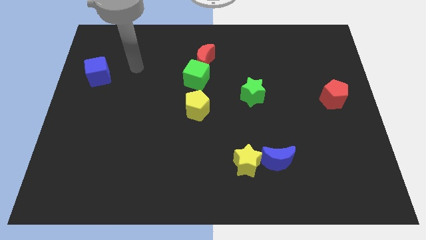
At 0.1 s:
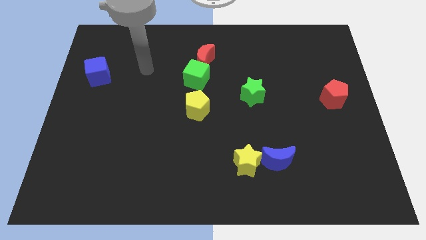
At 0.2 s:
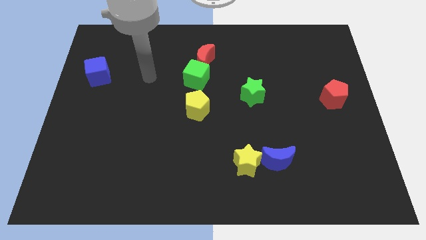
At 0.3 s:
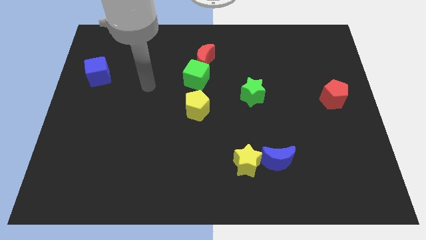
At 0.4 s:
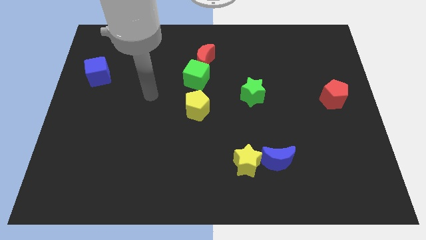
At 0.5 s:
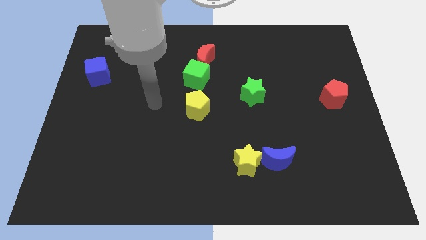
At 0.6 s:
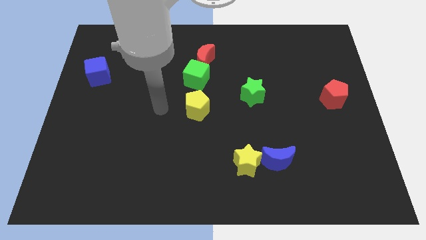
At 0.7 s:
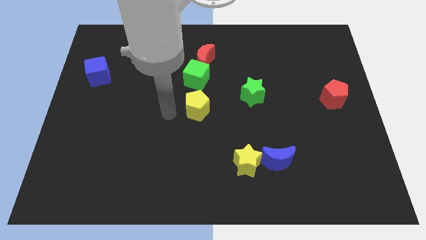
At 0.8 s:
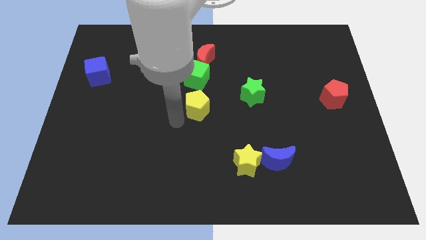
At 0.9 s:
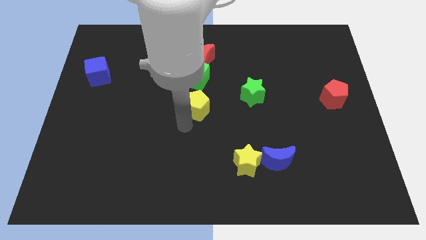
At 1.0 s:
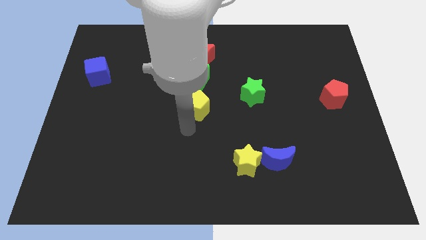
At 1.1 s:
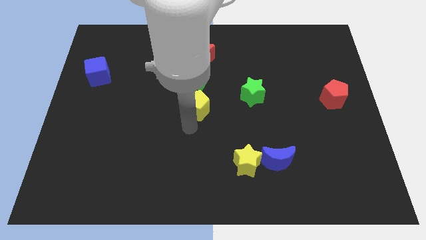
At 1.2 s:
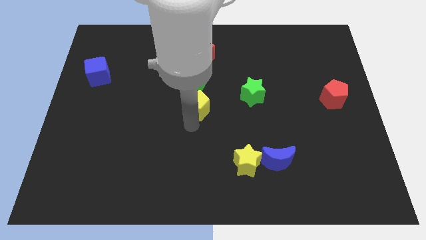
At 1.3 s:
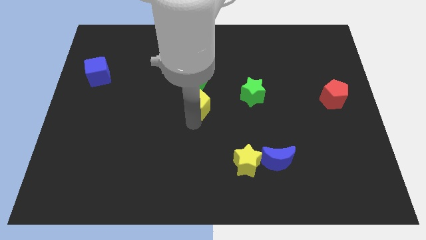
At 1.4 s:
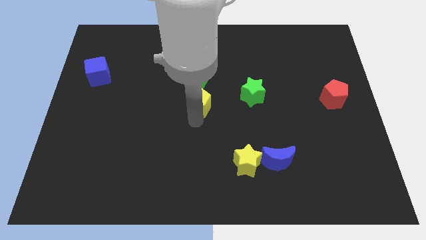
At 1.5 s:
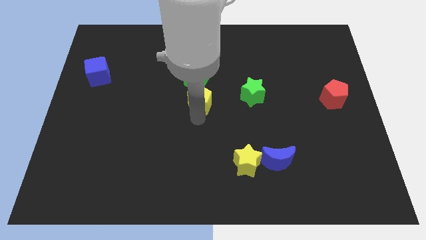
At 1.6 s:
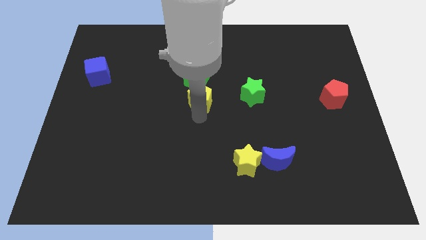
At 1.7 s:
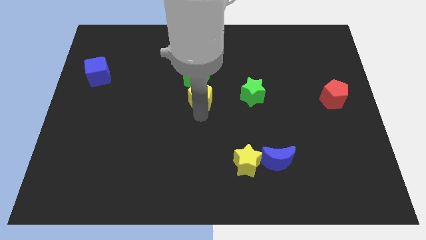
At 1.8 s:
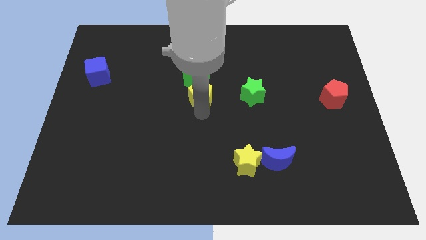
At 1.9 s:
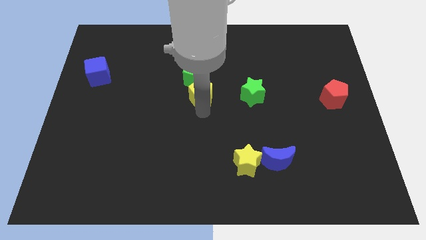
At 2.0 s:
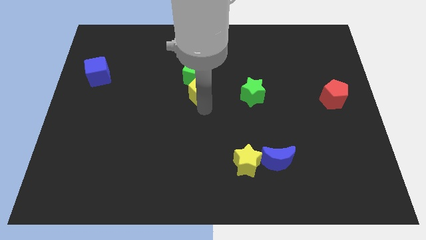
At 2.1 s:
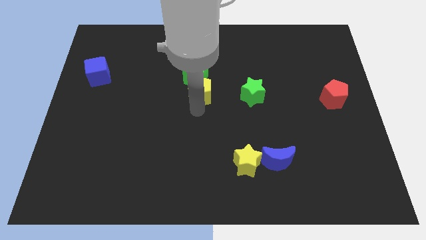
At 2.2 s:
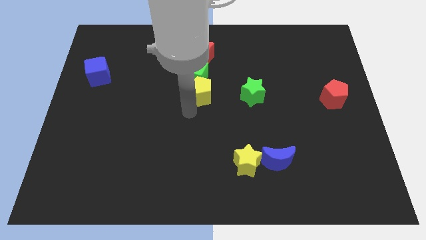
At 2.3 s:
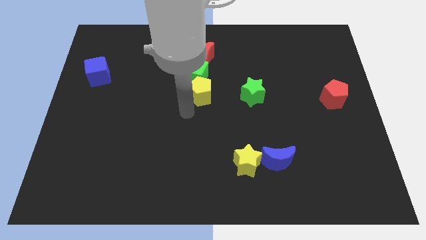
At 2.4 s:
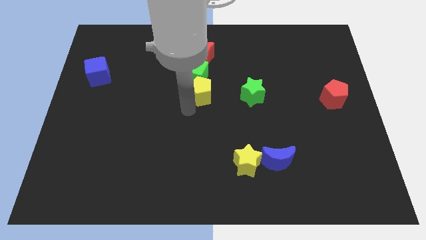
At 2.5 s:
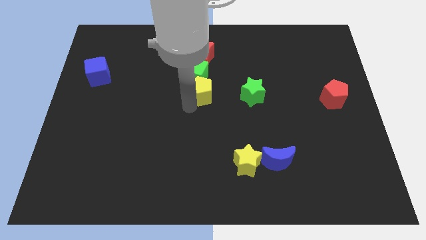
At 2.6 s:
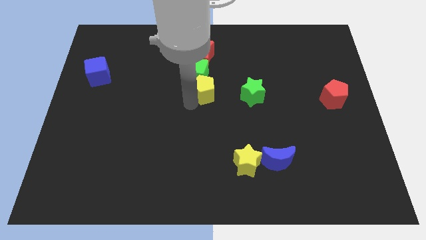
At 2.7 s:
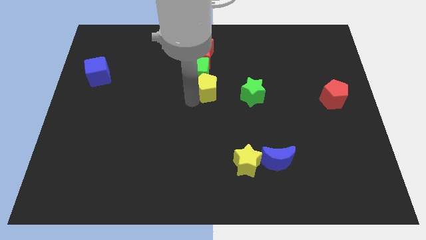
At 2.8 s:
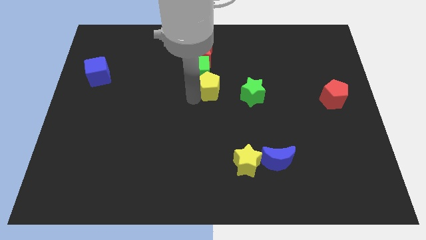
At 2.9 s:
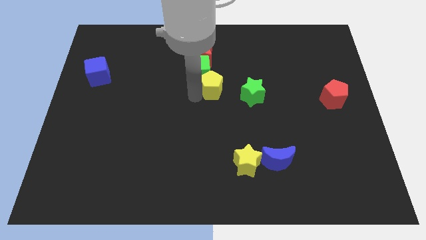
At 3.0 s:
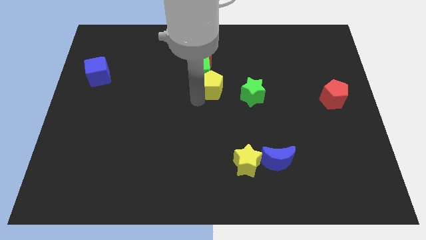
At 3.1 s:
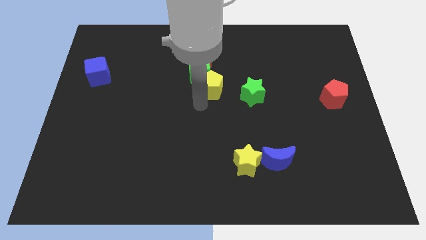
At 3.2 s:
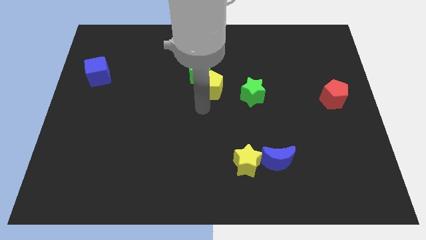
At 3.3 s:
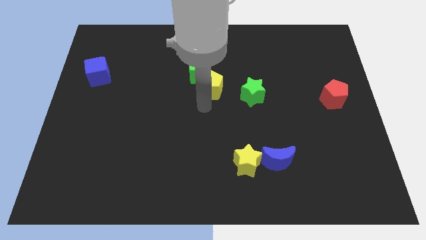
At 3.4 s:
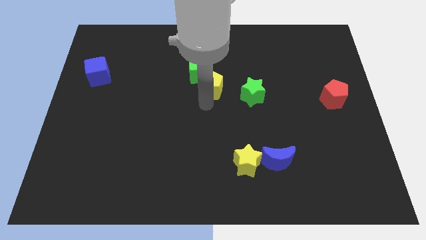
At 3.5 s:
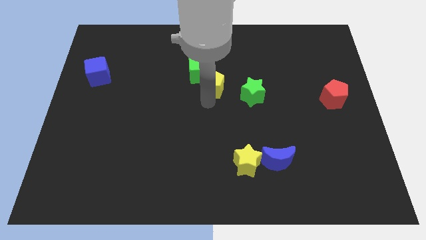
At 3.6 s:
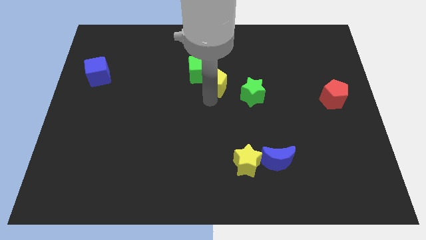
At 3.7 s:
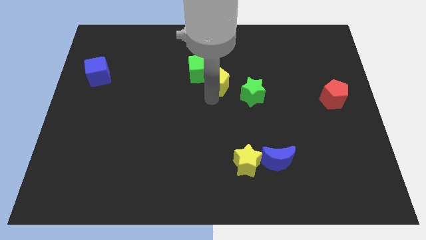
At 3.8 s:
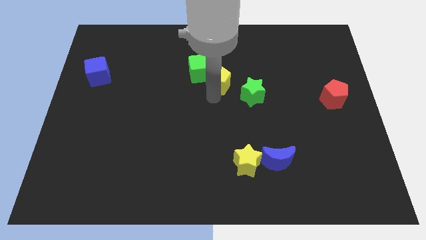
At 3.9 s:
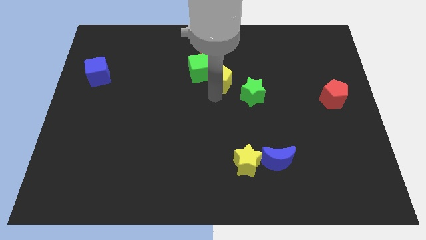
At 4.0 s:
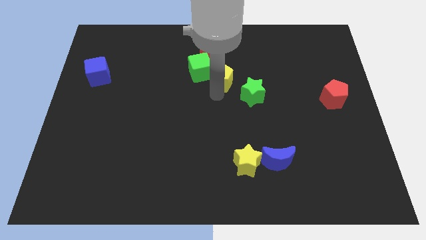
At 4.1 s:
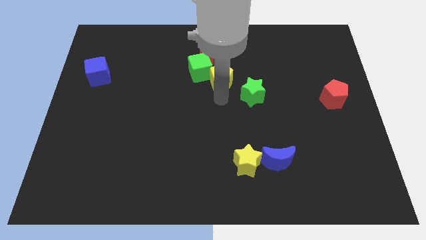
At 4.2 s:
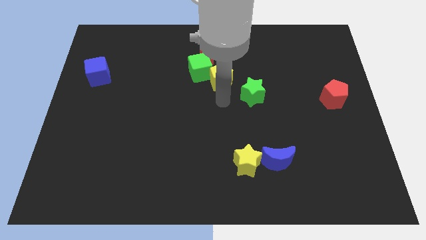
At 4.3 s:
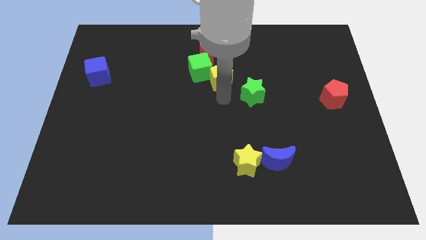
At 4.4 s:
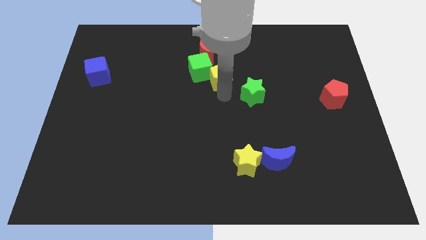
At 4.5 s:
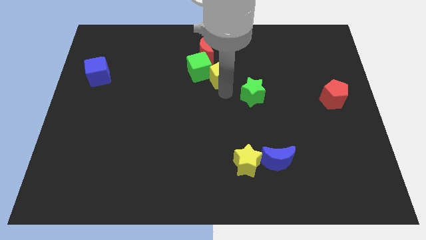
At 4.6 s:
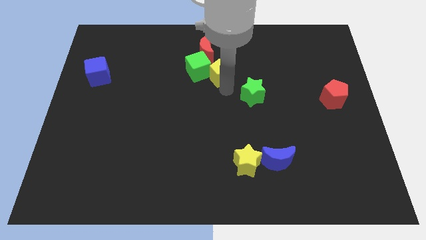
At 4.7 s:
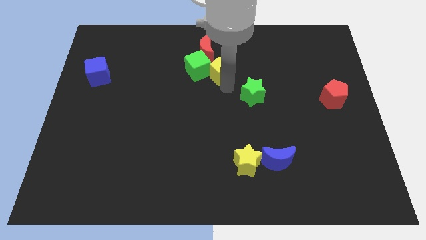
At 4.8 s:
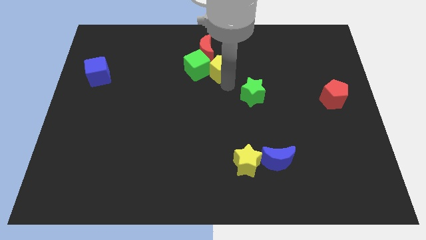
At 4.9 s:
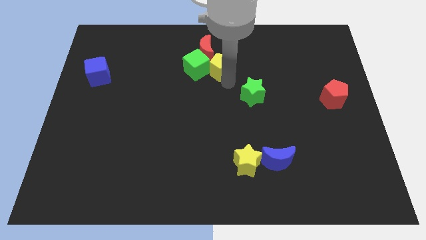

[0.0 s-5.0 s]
slide the yellow pentagon to the top right side of the green cube

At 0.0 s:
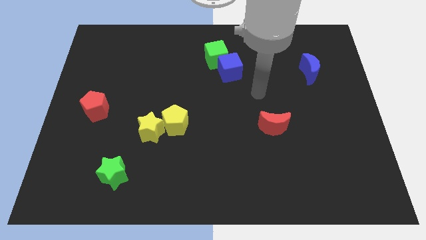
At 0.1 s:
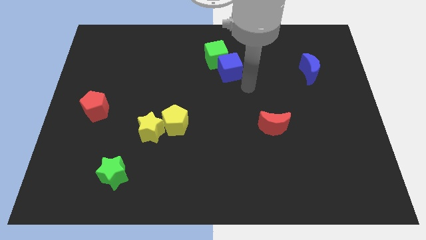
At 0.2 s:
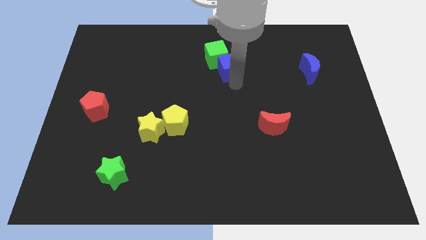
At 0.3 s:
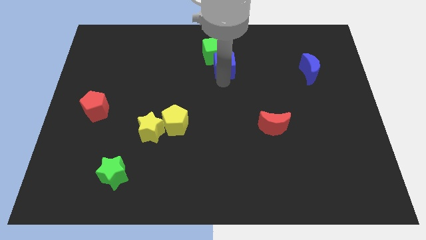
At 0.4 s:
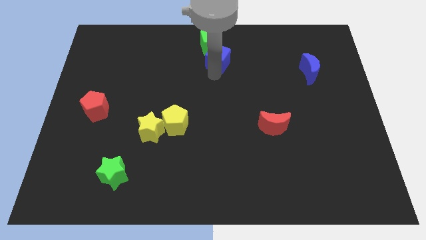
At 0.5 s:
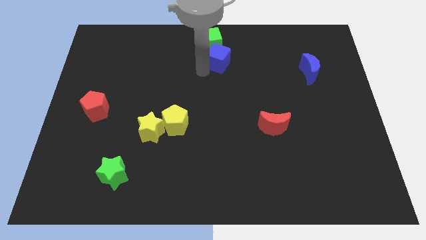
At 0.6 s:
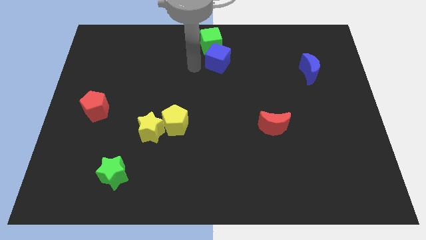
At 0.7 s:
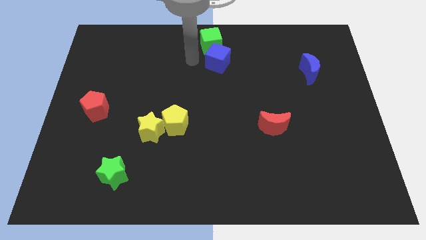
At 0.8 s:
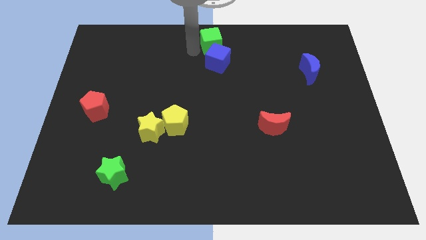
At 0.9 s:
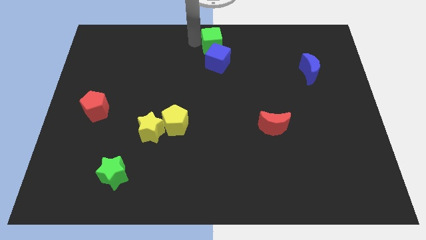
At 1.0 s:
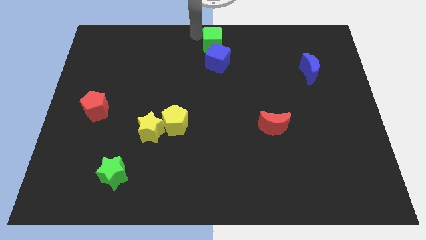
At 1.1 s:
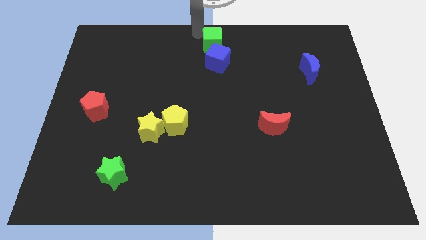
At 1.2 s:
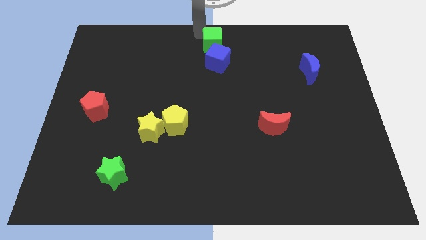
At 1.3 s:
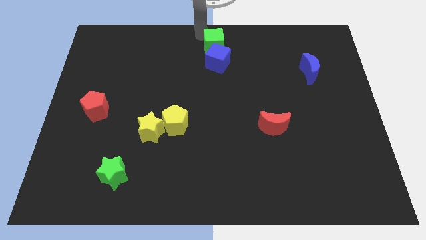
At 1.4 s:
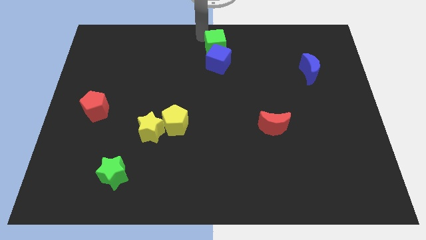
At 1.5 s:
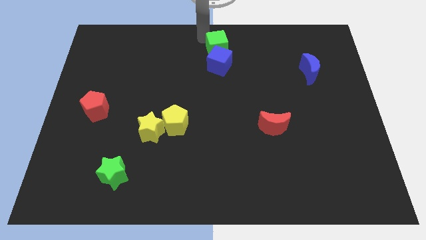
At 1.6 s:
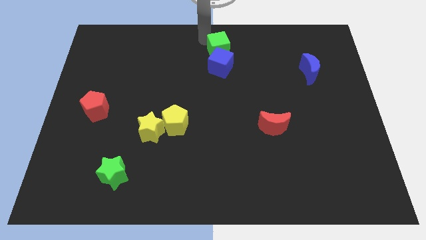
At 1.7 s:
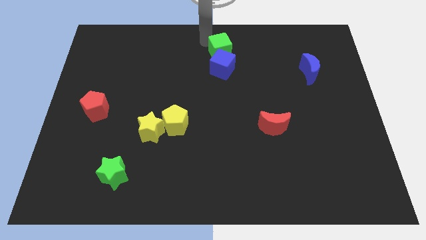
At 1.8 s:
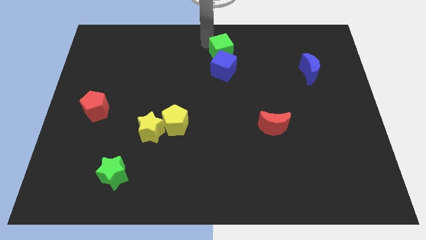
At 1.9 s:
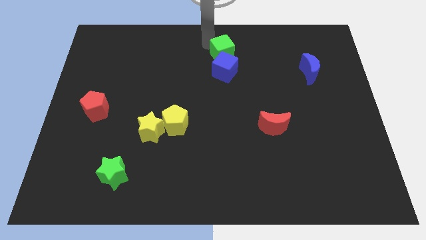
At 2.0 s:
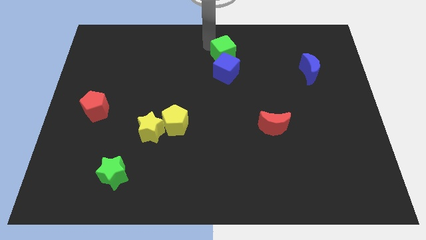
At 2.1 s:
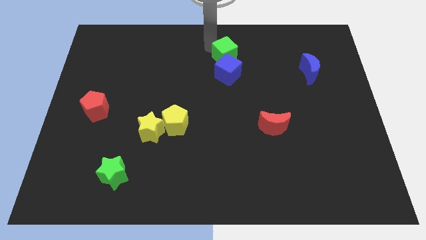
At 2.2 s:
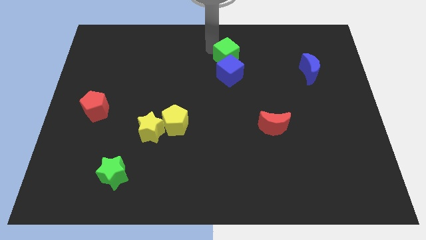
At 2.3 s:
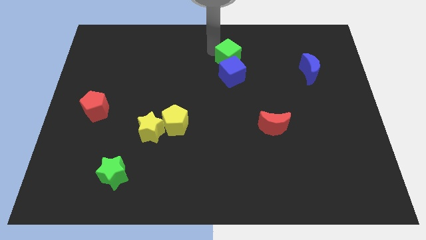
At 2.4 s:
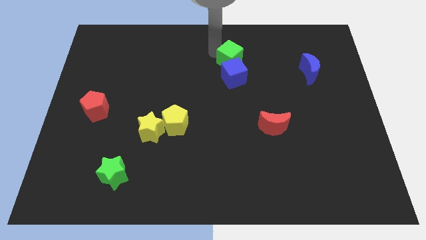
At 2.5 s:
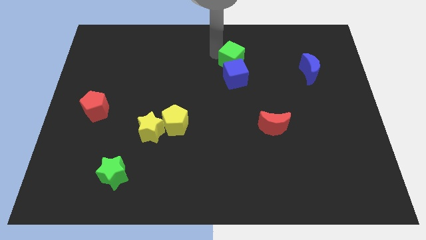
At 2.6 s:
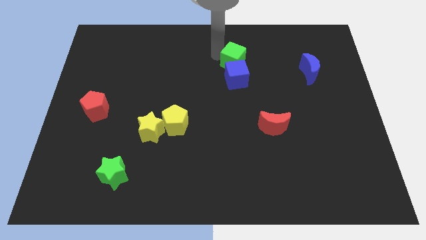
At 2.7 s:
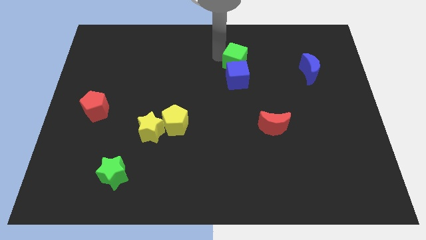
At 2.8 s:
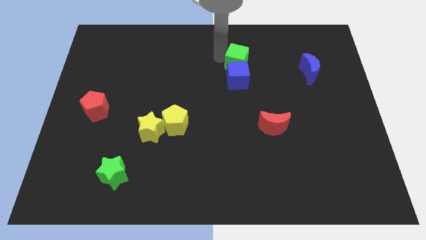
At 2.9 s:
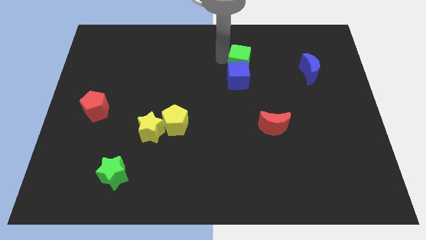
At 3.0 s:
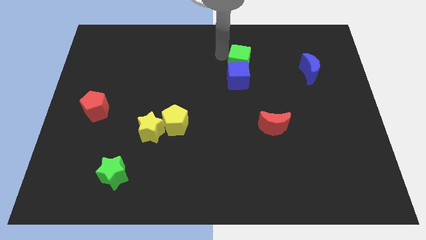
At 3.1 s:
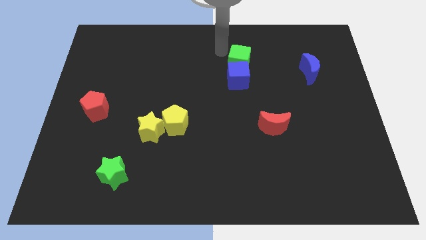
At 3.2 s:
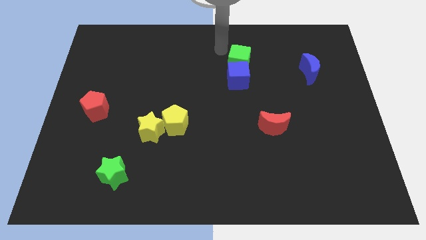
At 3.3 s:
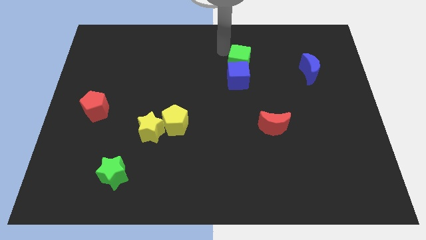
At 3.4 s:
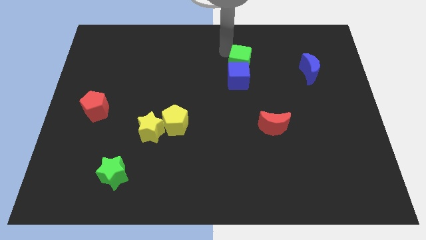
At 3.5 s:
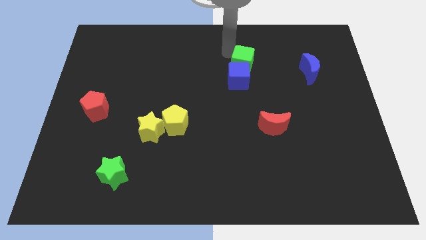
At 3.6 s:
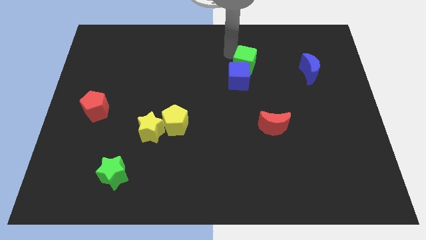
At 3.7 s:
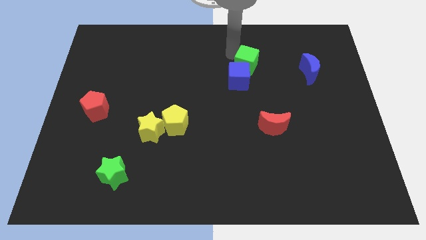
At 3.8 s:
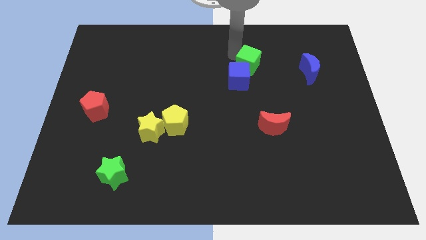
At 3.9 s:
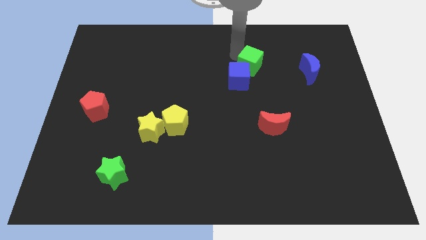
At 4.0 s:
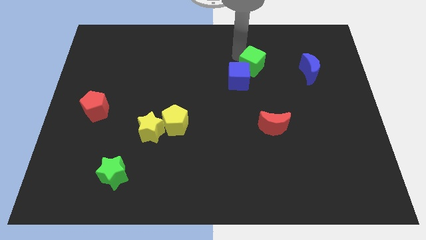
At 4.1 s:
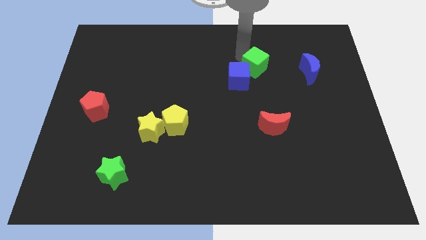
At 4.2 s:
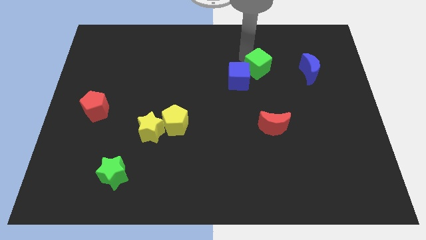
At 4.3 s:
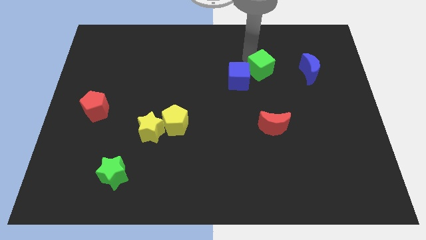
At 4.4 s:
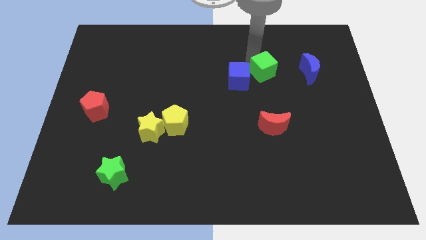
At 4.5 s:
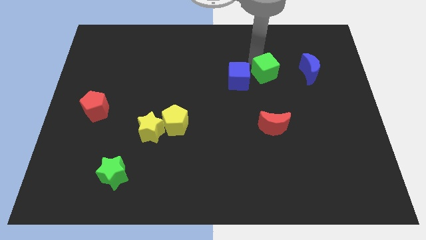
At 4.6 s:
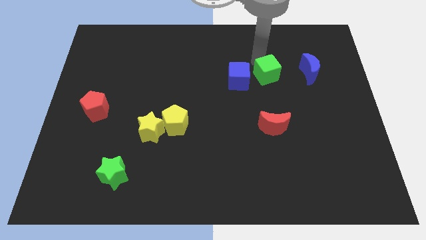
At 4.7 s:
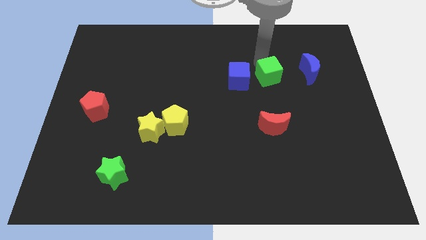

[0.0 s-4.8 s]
slide the green cube to the top of the red moon
